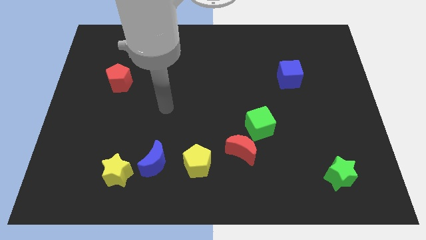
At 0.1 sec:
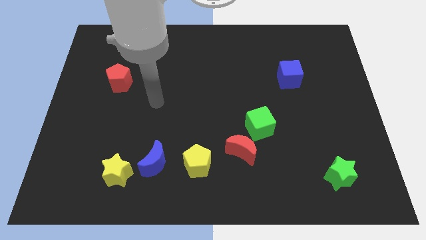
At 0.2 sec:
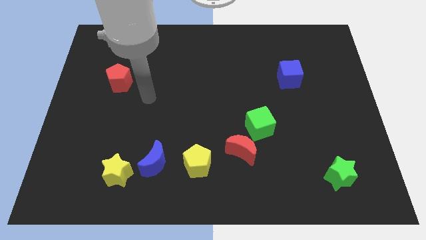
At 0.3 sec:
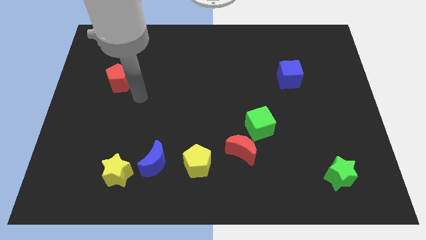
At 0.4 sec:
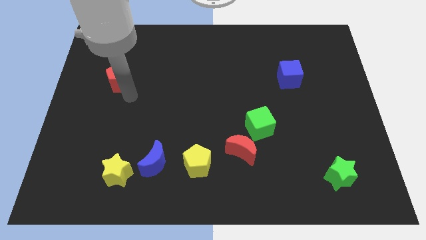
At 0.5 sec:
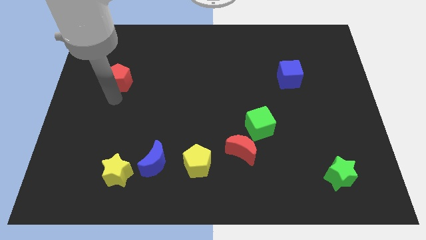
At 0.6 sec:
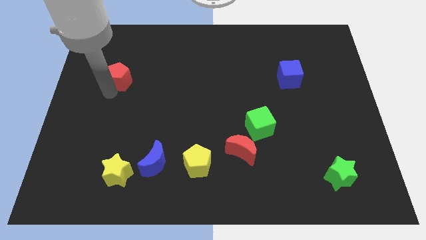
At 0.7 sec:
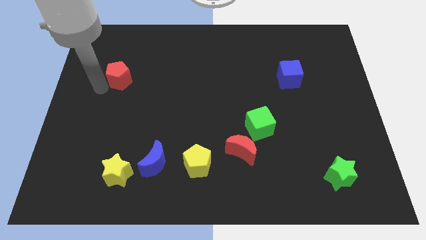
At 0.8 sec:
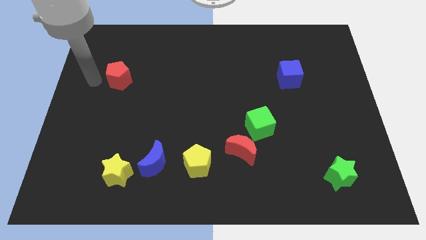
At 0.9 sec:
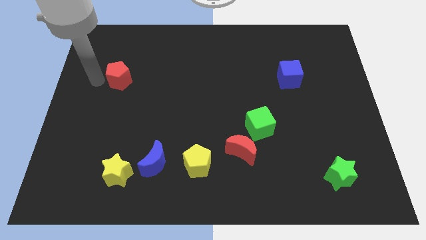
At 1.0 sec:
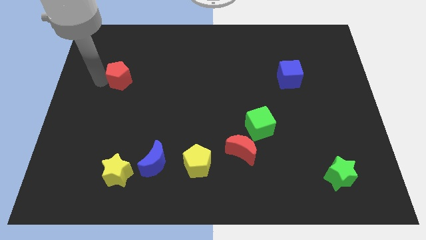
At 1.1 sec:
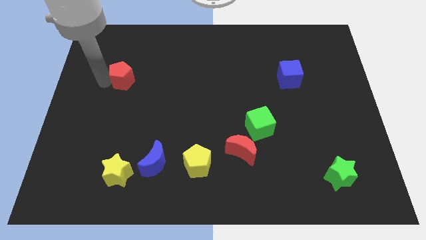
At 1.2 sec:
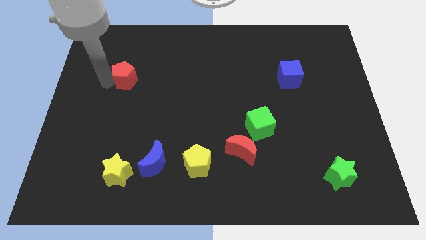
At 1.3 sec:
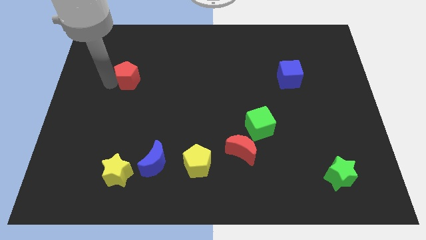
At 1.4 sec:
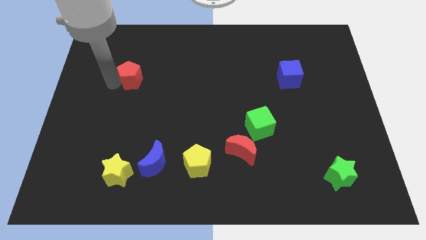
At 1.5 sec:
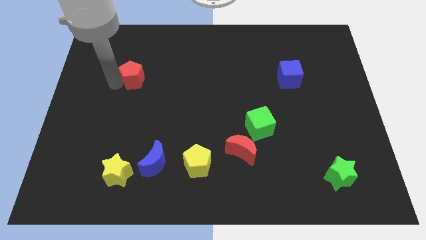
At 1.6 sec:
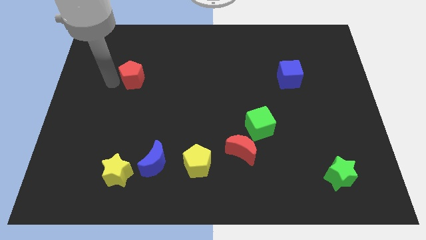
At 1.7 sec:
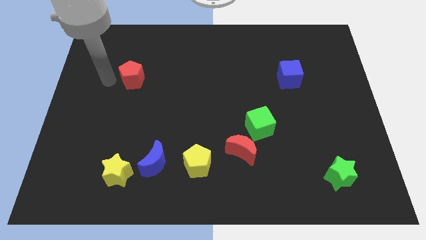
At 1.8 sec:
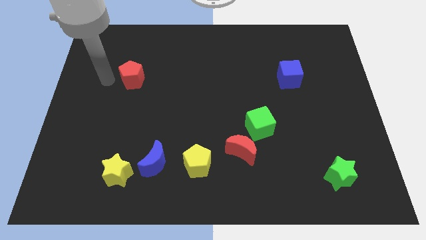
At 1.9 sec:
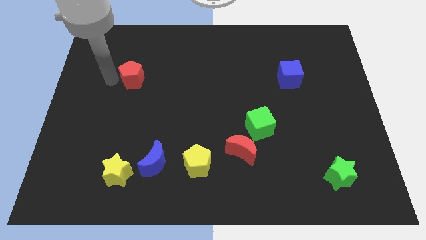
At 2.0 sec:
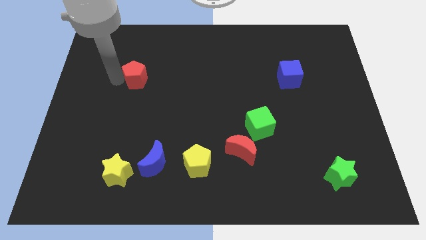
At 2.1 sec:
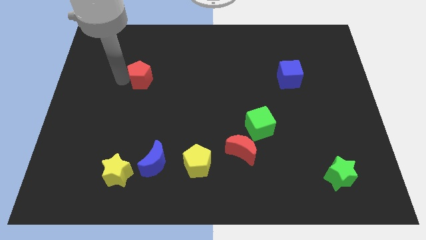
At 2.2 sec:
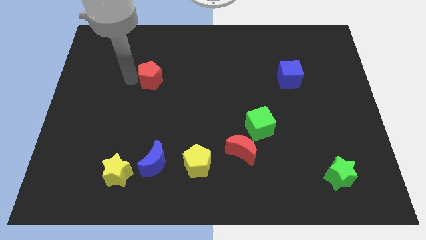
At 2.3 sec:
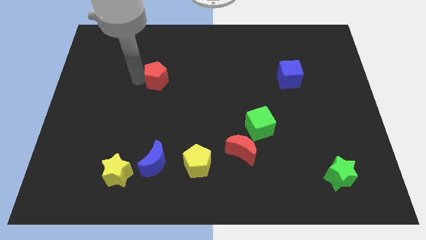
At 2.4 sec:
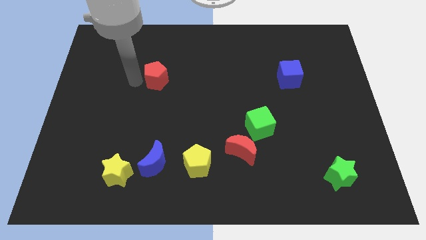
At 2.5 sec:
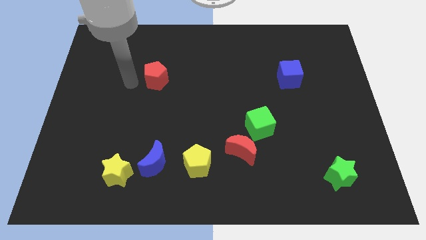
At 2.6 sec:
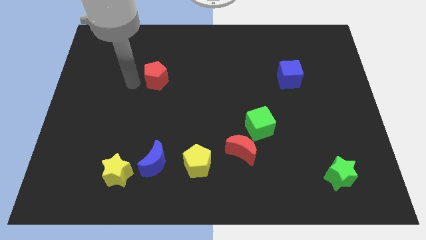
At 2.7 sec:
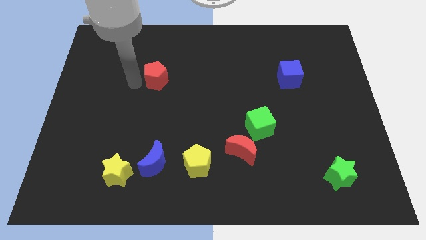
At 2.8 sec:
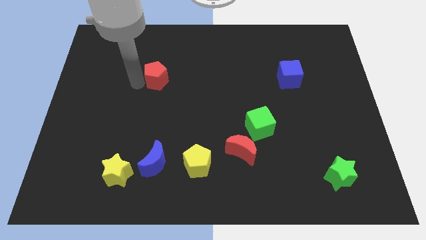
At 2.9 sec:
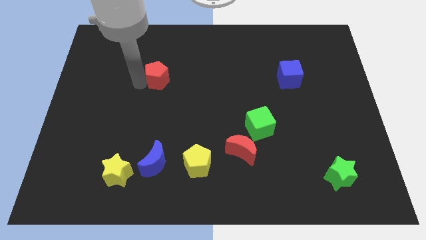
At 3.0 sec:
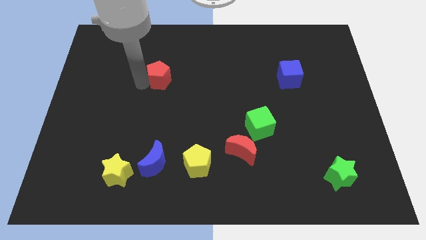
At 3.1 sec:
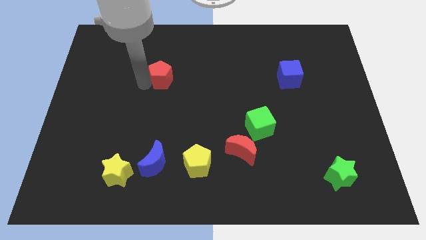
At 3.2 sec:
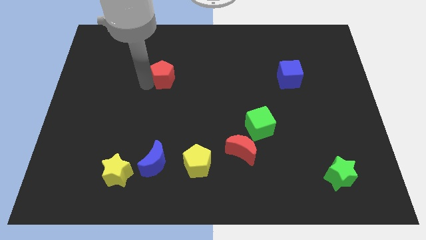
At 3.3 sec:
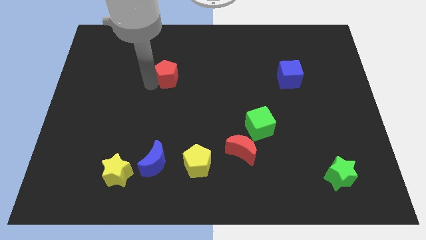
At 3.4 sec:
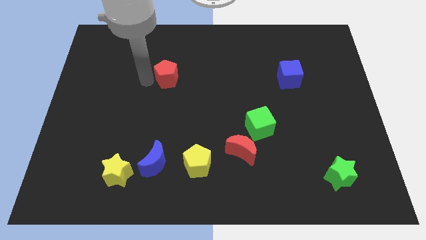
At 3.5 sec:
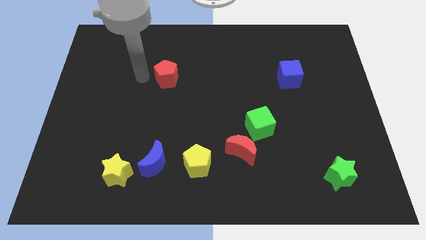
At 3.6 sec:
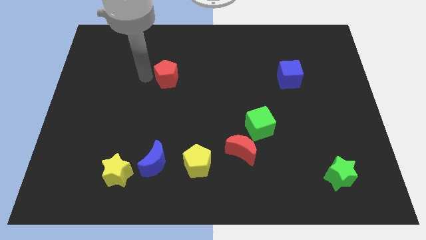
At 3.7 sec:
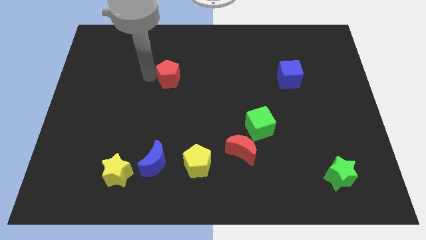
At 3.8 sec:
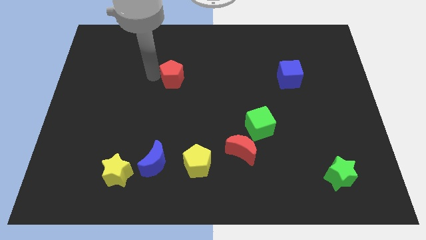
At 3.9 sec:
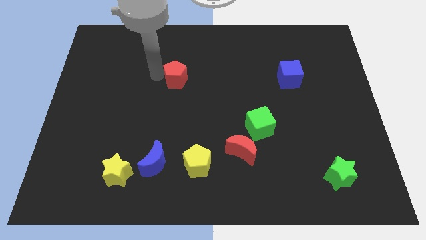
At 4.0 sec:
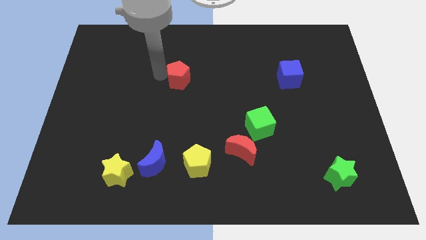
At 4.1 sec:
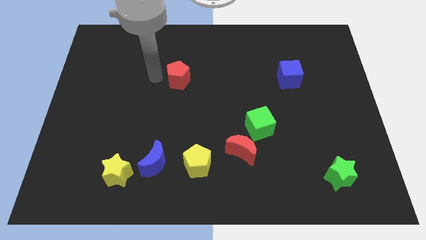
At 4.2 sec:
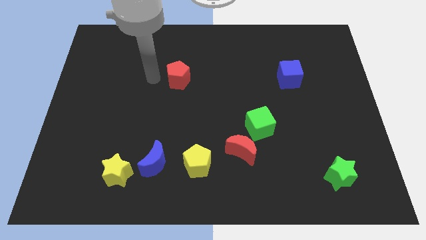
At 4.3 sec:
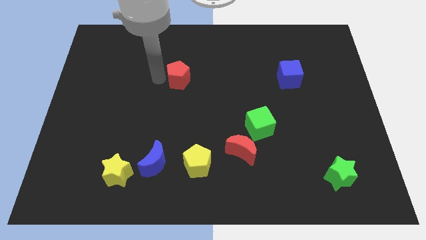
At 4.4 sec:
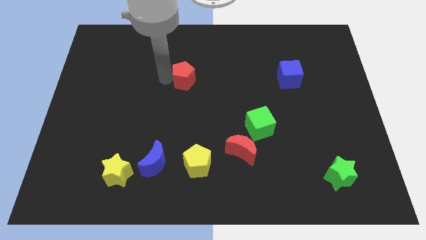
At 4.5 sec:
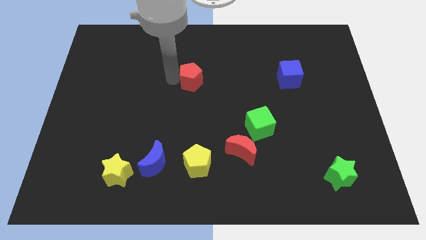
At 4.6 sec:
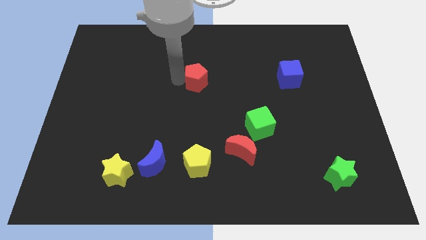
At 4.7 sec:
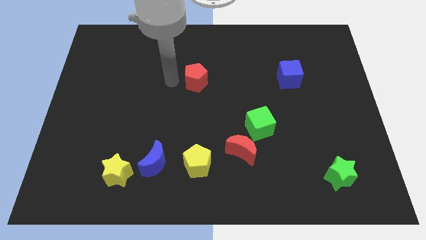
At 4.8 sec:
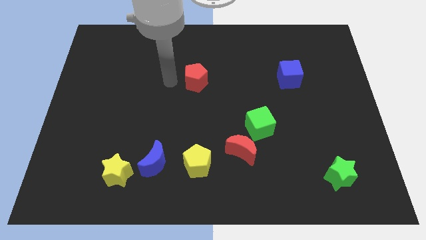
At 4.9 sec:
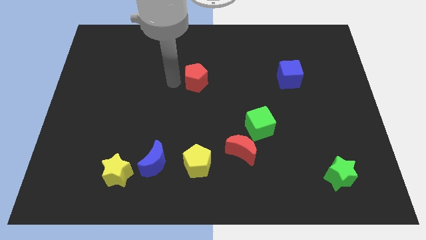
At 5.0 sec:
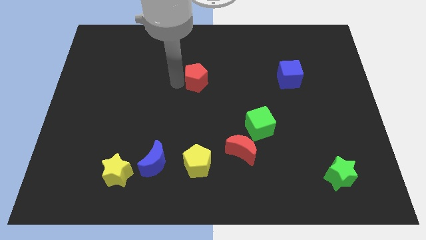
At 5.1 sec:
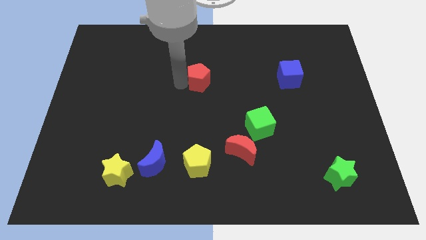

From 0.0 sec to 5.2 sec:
move the red pentagon right

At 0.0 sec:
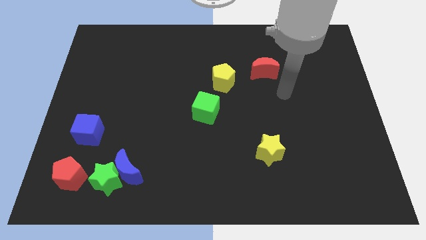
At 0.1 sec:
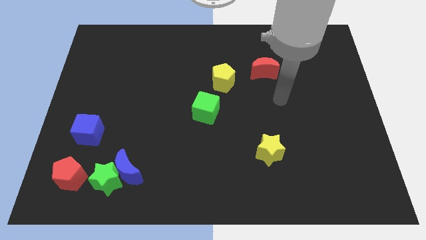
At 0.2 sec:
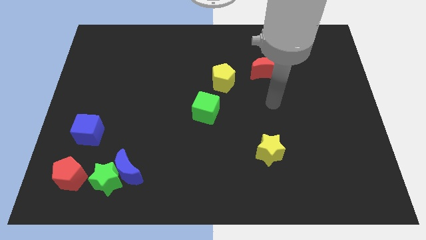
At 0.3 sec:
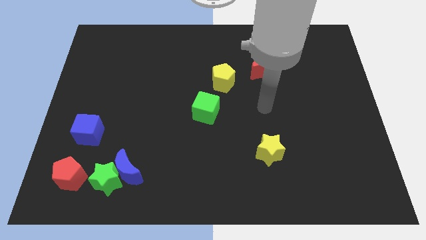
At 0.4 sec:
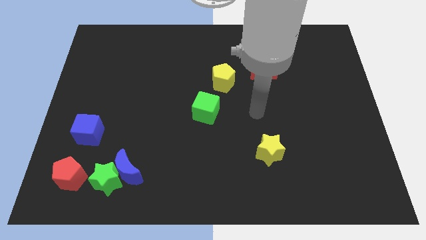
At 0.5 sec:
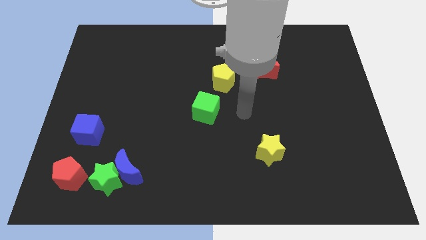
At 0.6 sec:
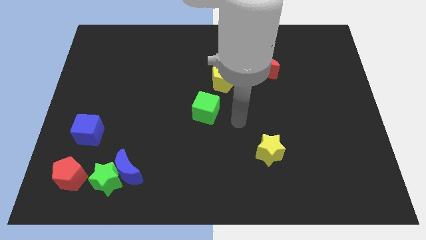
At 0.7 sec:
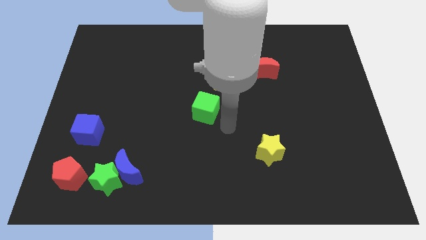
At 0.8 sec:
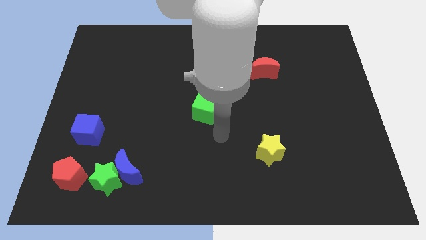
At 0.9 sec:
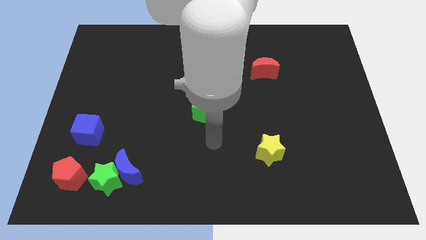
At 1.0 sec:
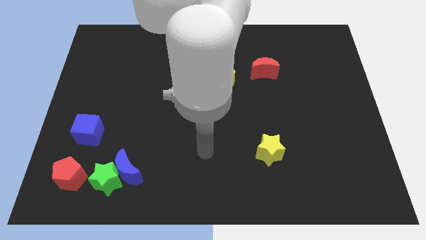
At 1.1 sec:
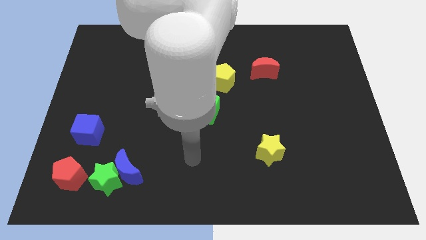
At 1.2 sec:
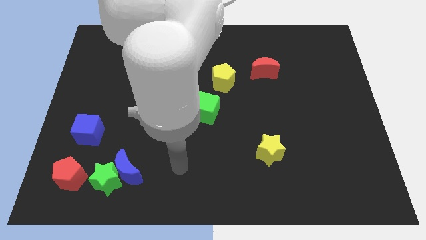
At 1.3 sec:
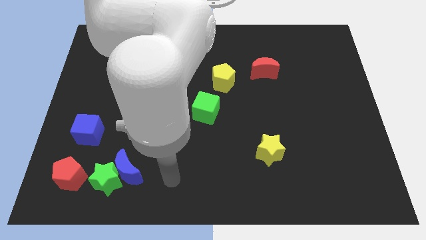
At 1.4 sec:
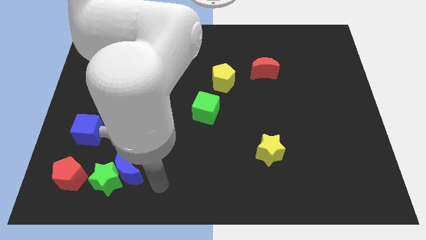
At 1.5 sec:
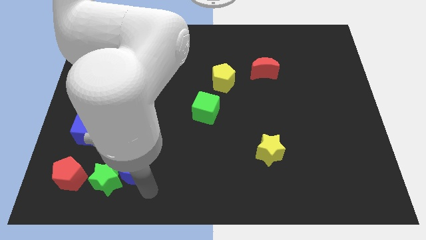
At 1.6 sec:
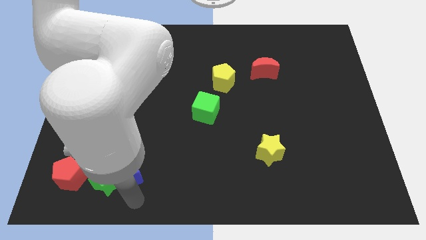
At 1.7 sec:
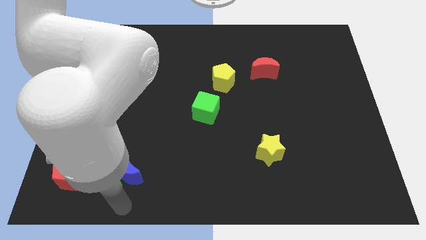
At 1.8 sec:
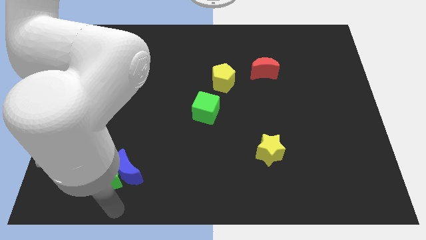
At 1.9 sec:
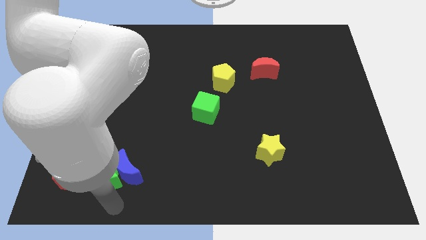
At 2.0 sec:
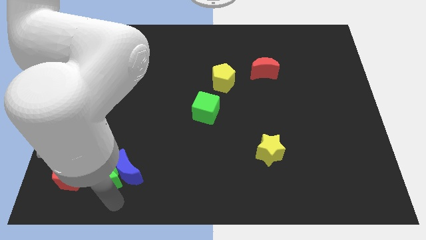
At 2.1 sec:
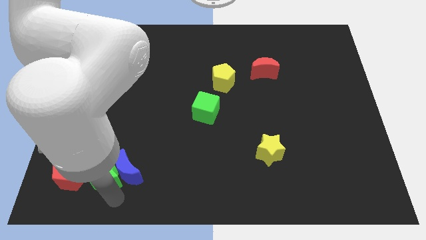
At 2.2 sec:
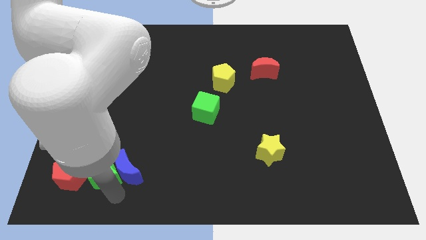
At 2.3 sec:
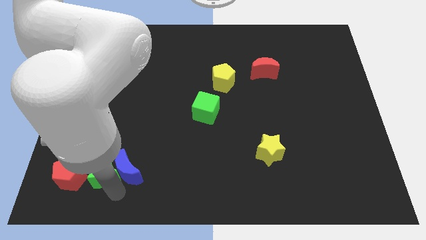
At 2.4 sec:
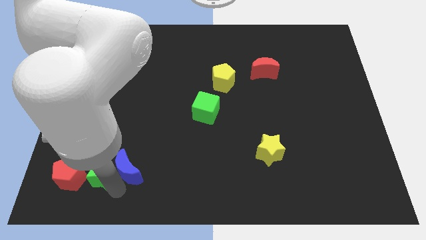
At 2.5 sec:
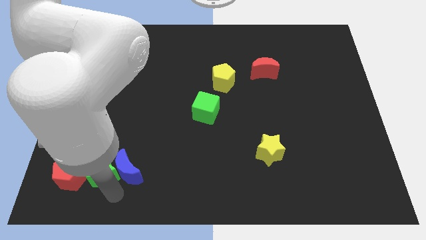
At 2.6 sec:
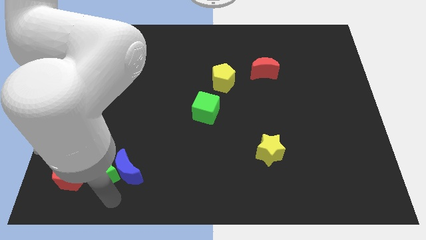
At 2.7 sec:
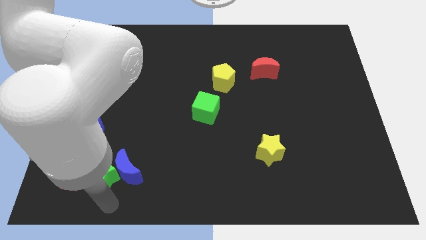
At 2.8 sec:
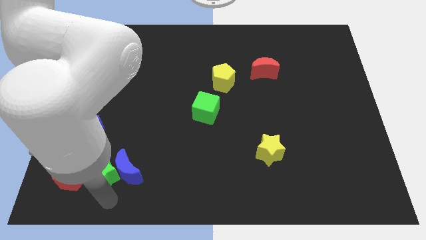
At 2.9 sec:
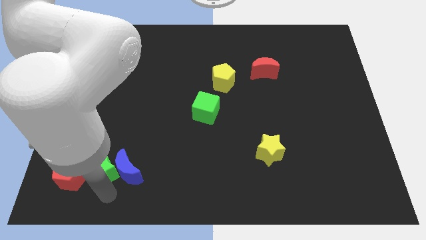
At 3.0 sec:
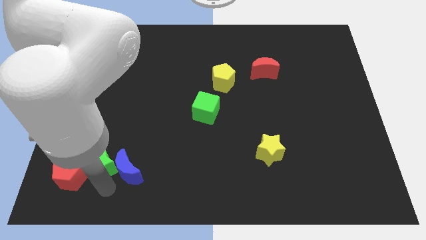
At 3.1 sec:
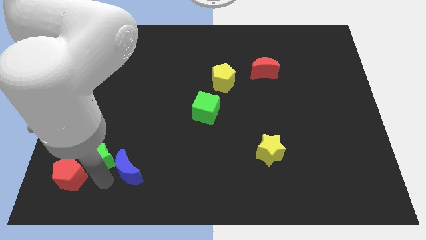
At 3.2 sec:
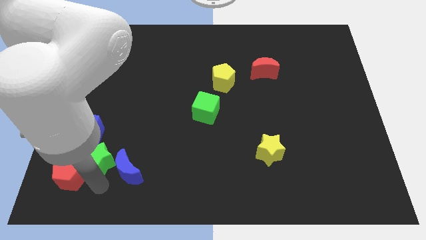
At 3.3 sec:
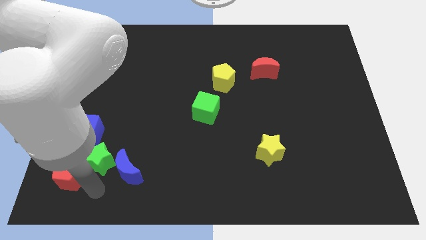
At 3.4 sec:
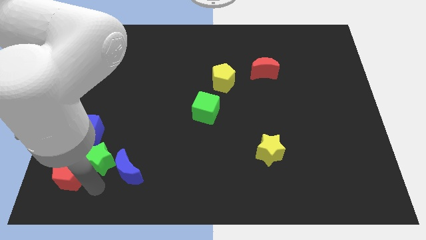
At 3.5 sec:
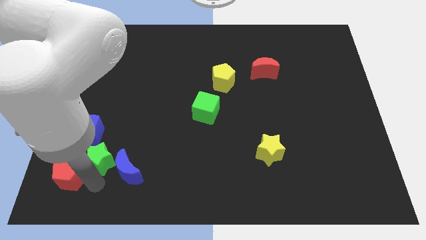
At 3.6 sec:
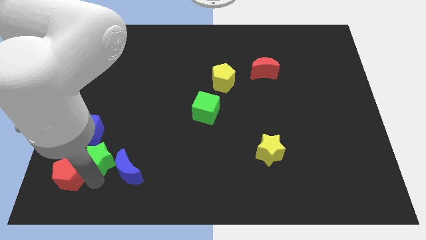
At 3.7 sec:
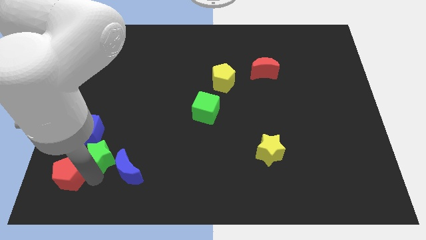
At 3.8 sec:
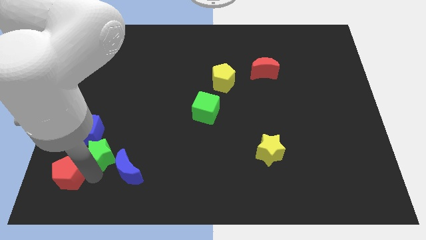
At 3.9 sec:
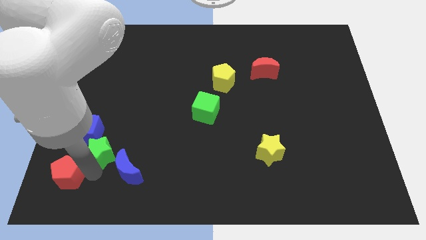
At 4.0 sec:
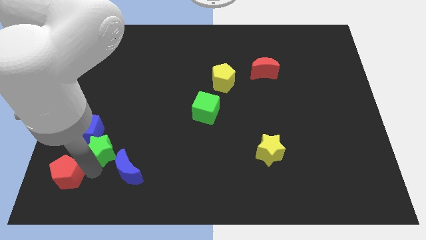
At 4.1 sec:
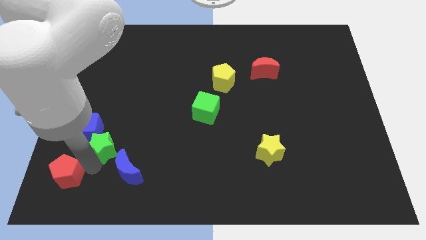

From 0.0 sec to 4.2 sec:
slightly slide the green star up
